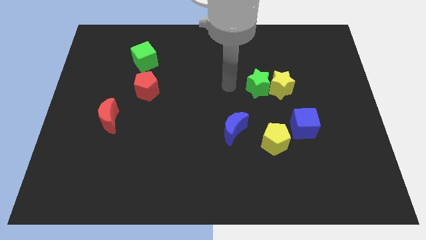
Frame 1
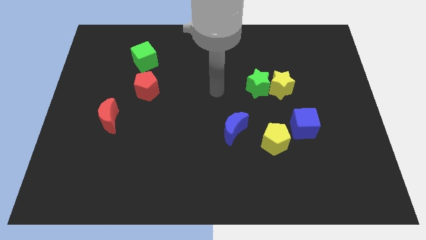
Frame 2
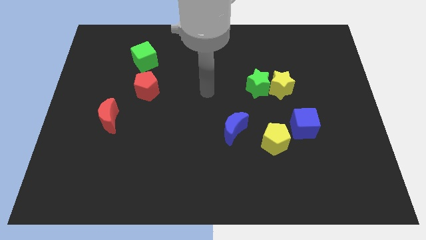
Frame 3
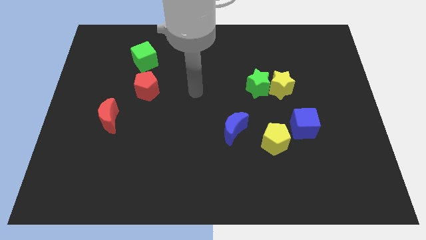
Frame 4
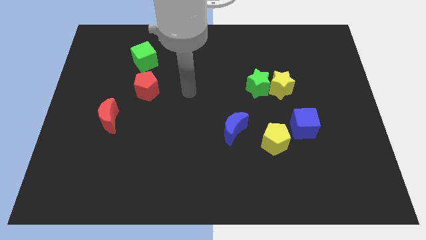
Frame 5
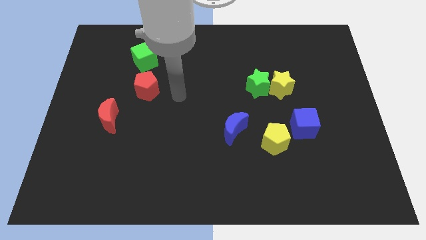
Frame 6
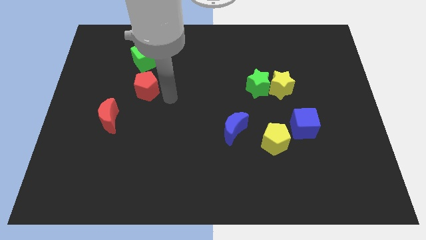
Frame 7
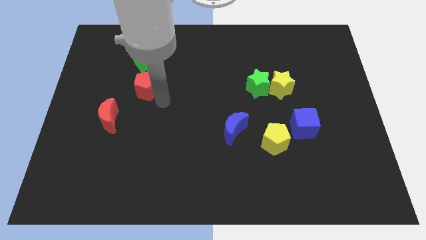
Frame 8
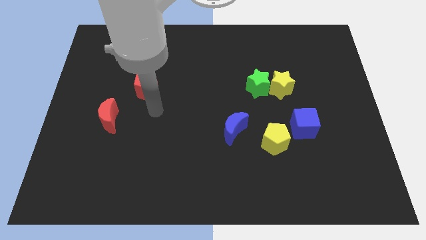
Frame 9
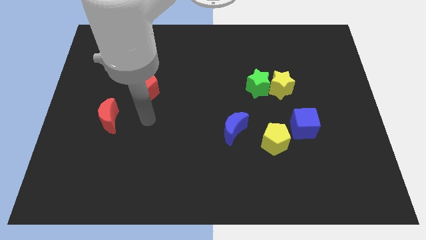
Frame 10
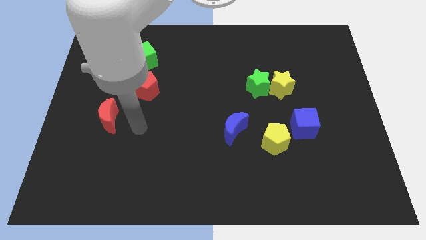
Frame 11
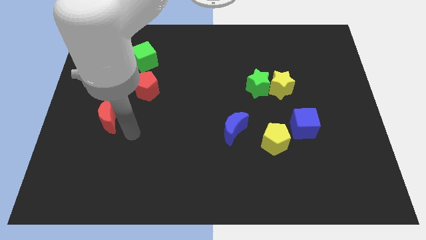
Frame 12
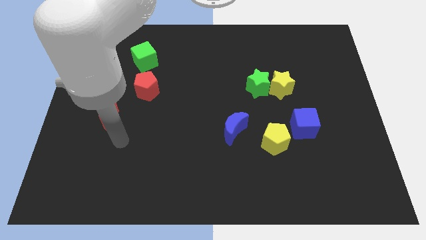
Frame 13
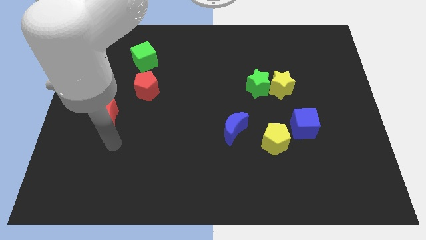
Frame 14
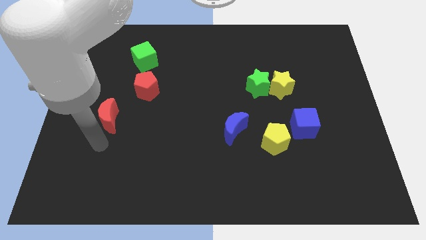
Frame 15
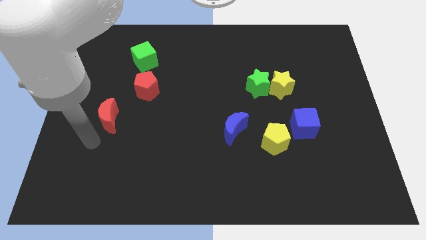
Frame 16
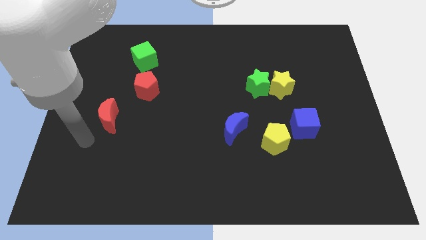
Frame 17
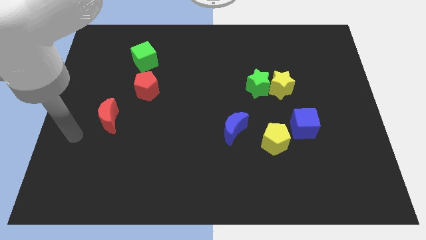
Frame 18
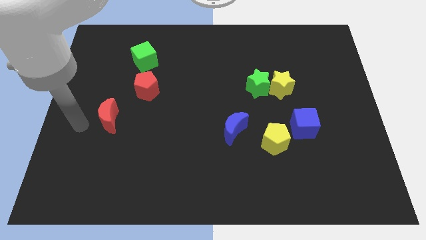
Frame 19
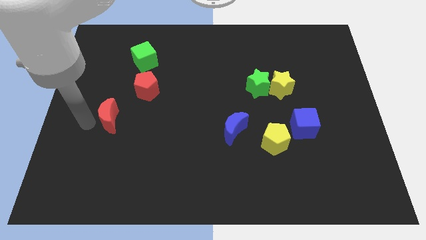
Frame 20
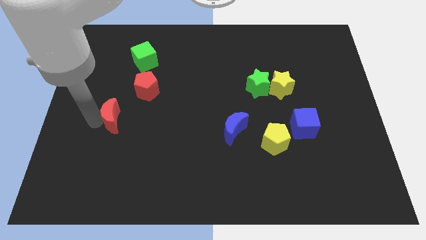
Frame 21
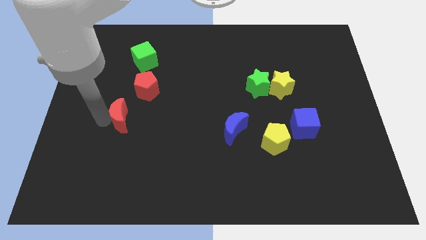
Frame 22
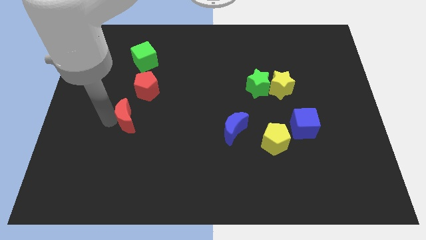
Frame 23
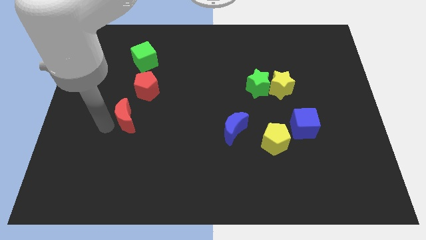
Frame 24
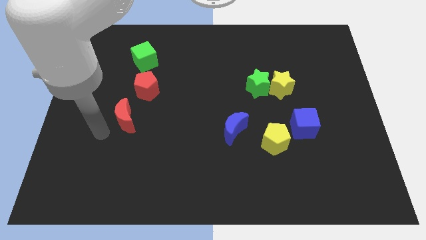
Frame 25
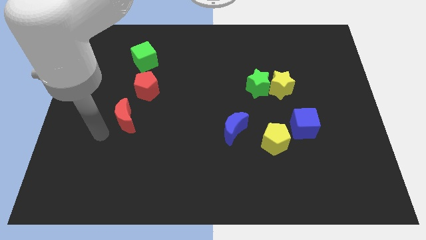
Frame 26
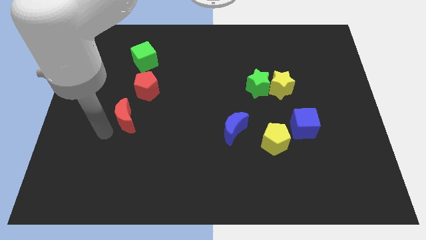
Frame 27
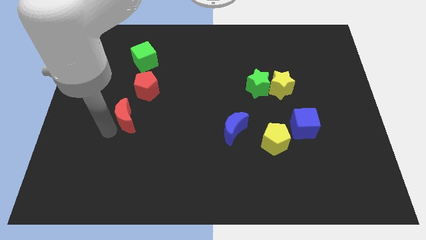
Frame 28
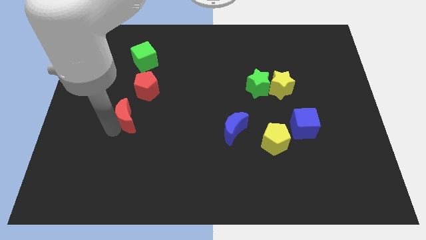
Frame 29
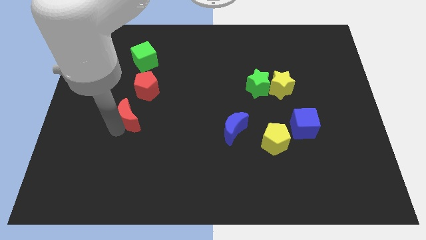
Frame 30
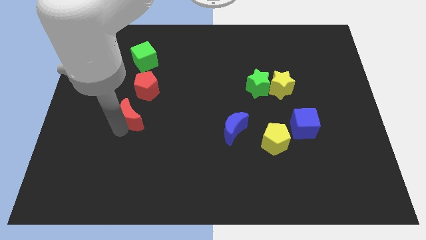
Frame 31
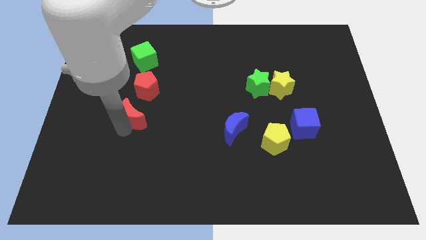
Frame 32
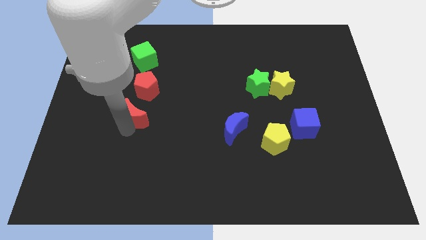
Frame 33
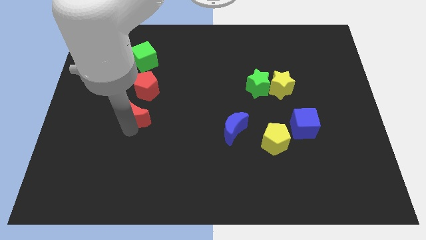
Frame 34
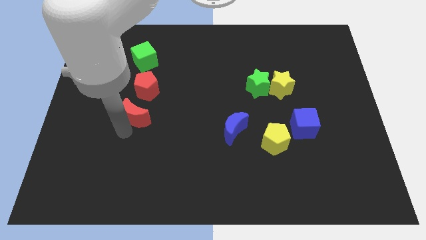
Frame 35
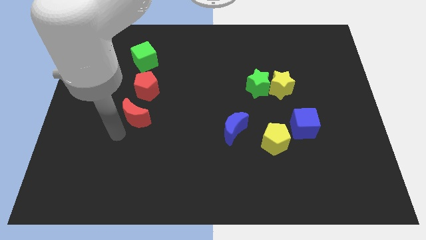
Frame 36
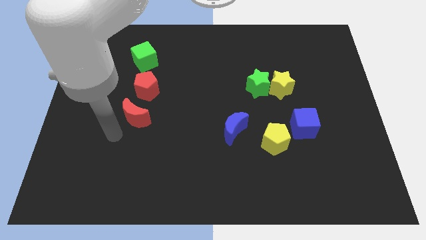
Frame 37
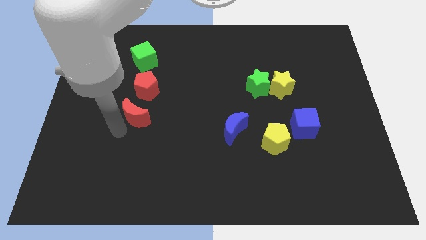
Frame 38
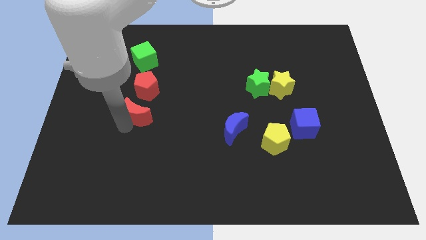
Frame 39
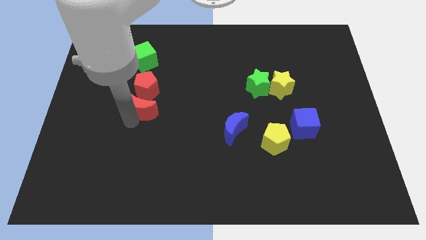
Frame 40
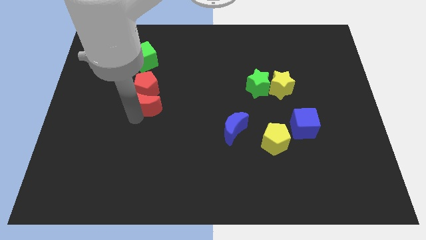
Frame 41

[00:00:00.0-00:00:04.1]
slide the red moon a little bit diagonally upwards and to the right

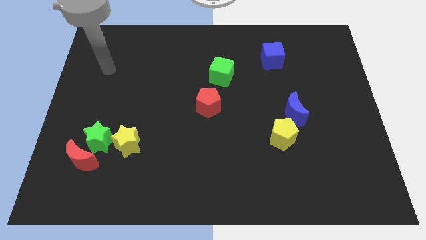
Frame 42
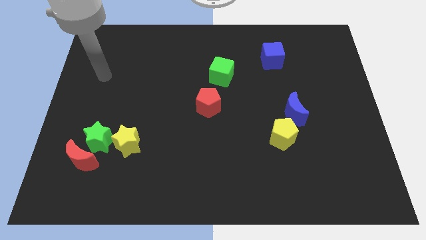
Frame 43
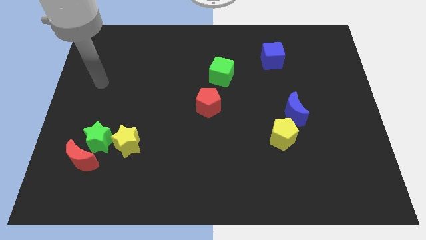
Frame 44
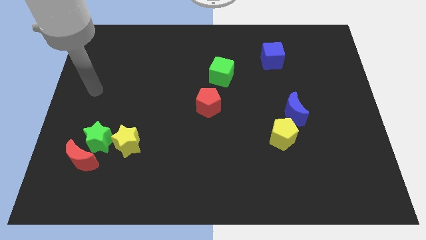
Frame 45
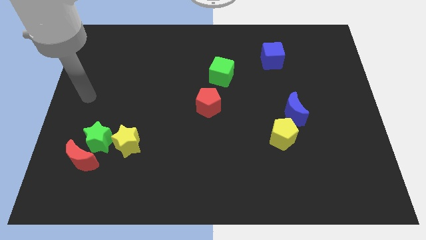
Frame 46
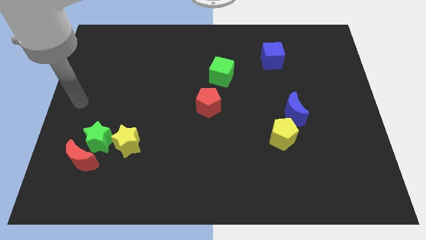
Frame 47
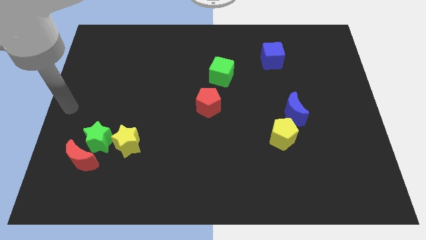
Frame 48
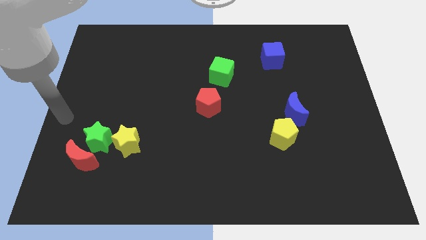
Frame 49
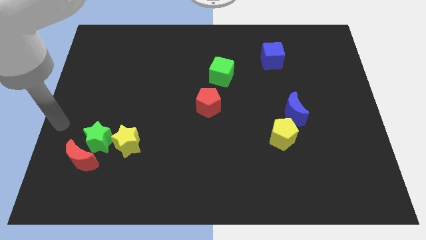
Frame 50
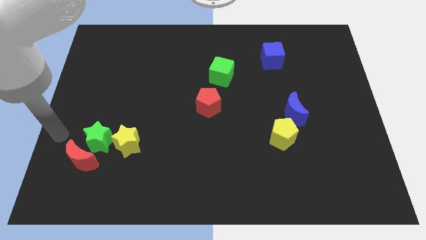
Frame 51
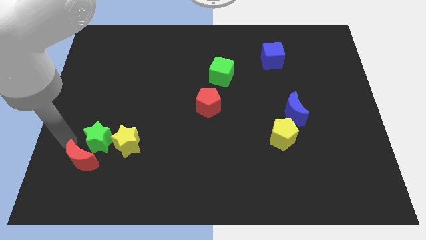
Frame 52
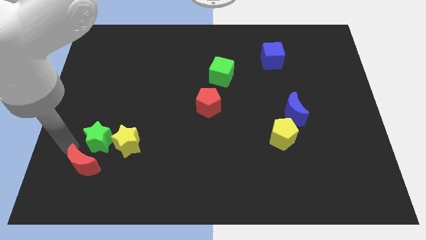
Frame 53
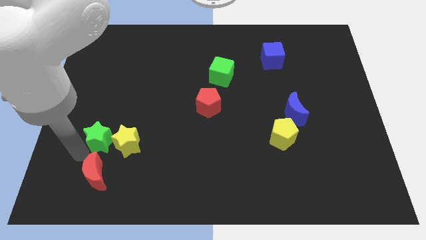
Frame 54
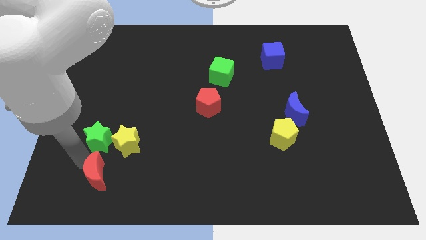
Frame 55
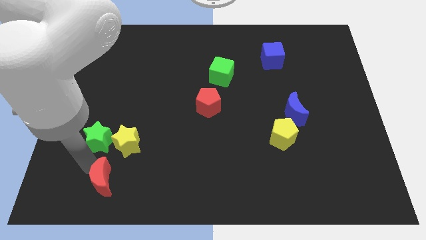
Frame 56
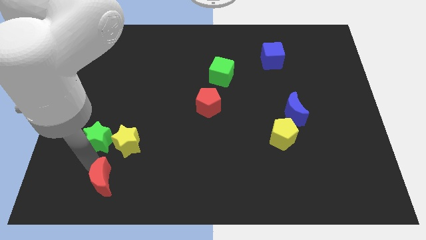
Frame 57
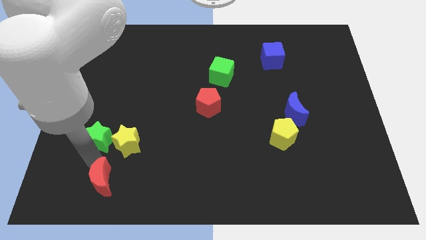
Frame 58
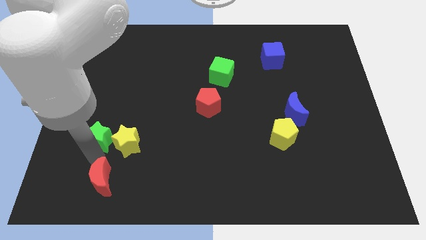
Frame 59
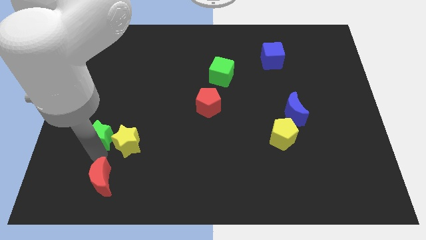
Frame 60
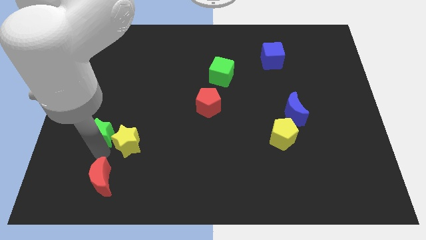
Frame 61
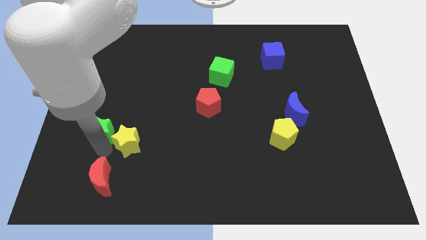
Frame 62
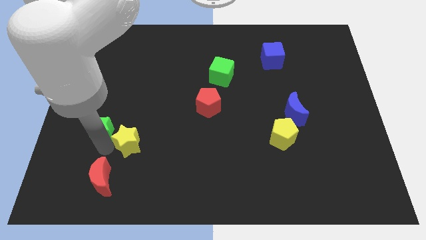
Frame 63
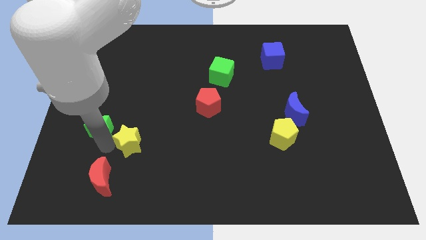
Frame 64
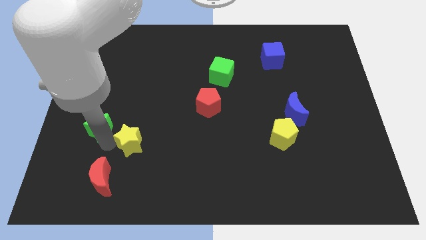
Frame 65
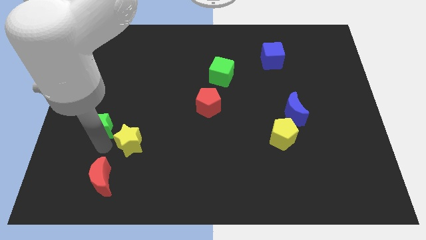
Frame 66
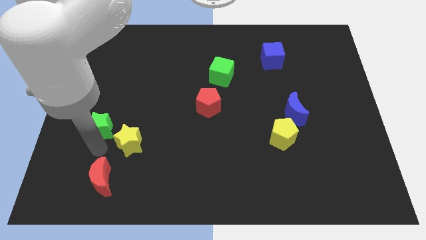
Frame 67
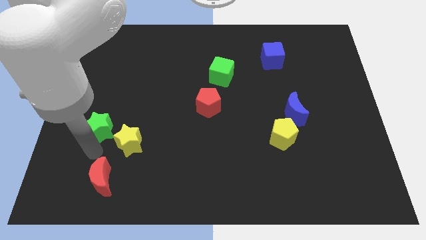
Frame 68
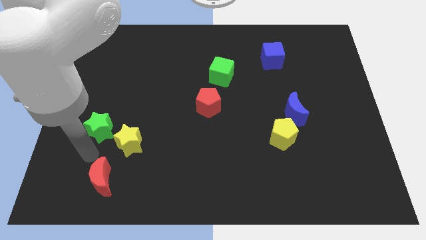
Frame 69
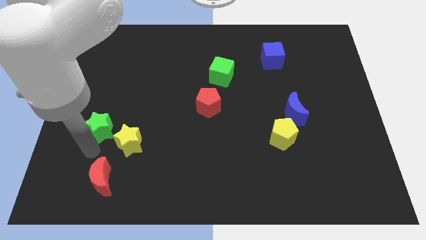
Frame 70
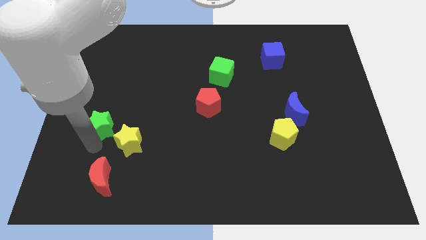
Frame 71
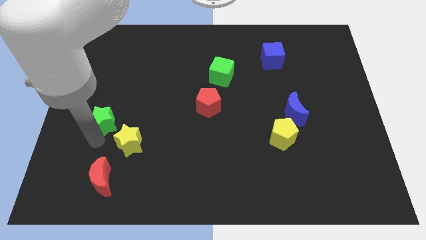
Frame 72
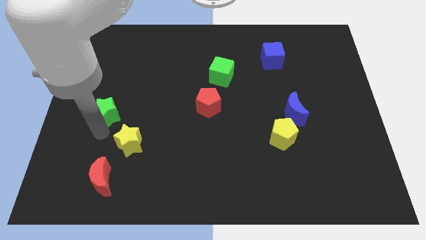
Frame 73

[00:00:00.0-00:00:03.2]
move the green star upwards a bit

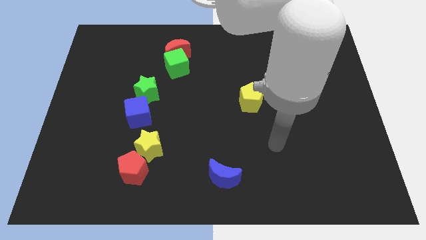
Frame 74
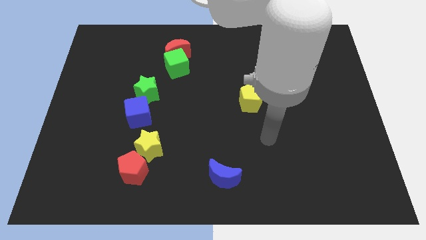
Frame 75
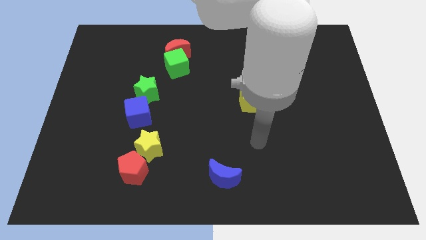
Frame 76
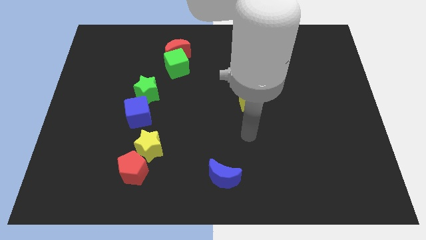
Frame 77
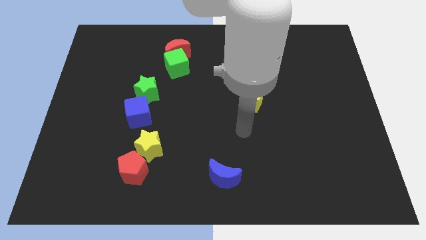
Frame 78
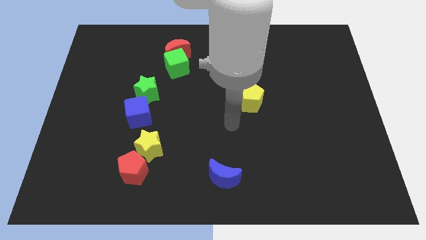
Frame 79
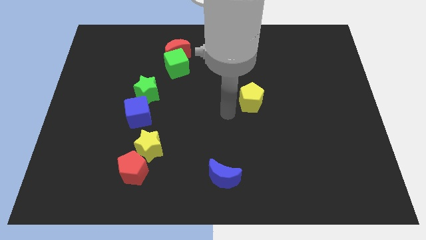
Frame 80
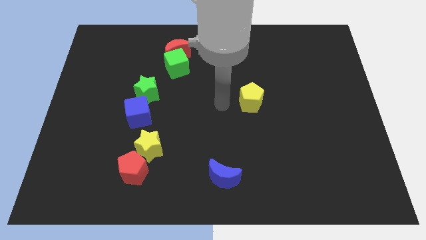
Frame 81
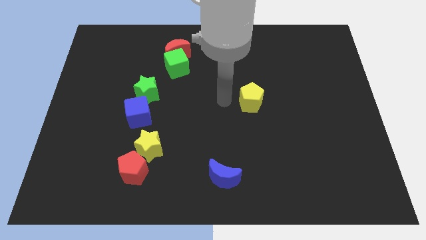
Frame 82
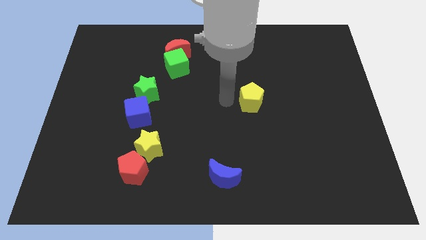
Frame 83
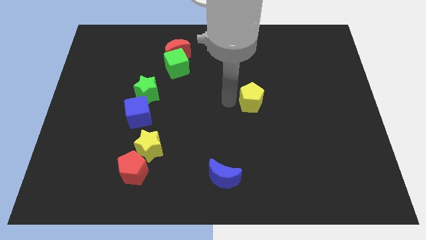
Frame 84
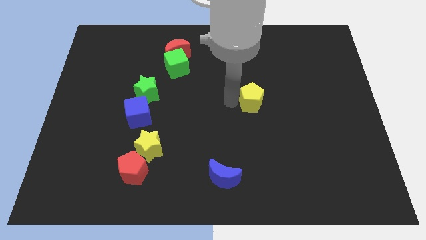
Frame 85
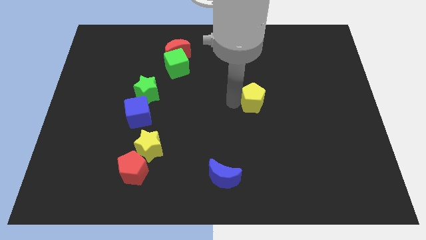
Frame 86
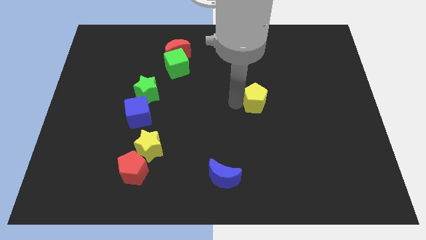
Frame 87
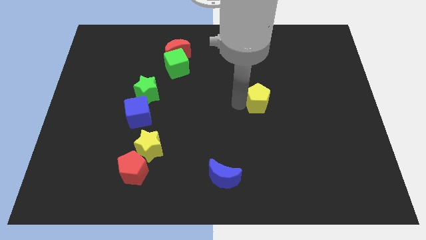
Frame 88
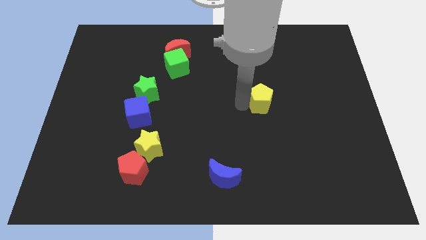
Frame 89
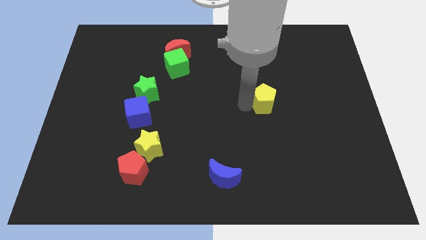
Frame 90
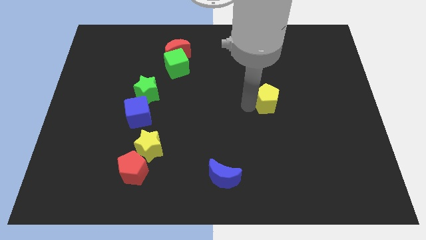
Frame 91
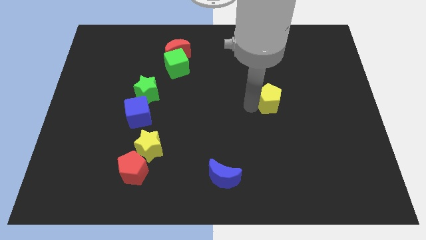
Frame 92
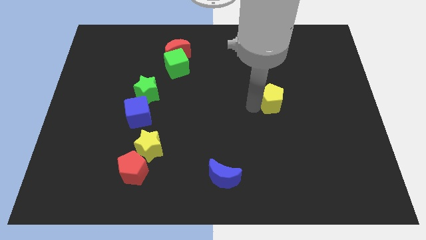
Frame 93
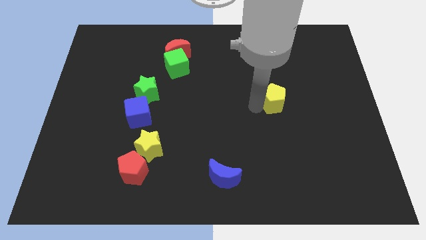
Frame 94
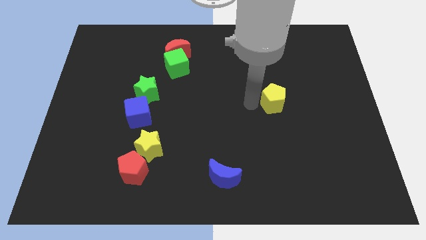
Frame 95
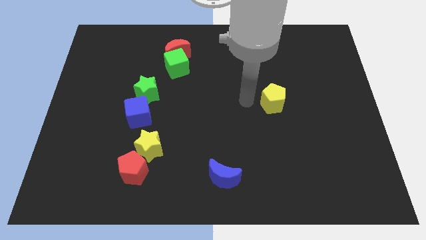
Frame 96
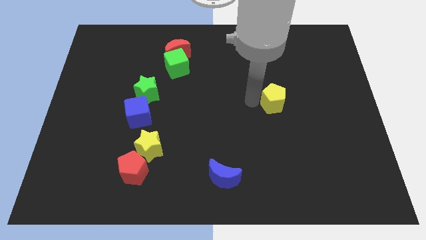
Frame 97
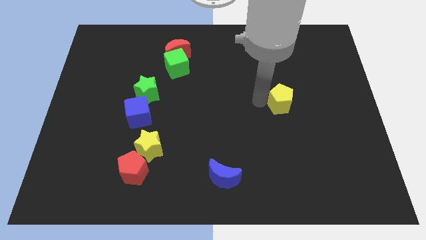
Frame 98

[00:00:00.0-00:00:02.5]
slide the yellow pentagon somewhat to the right
